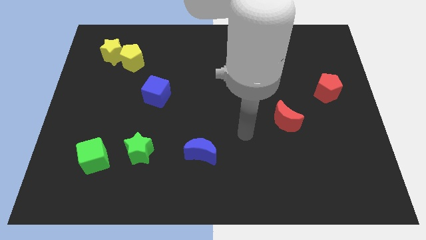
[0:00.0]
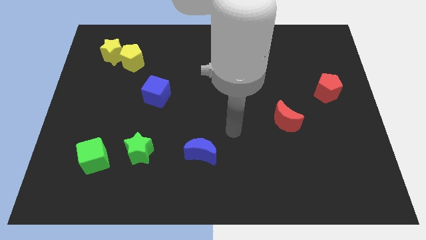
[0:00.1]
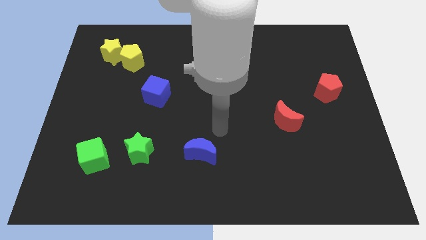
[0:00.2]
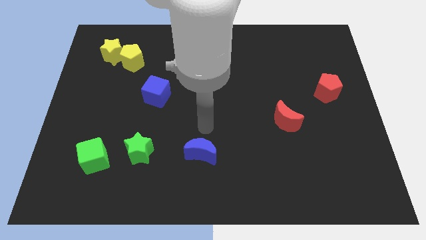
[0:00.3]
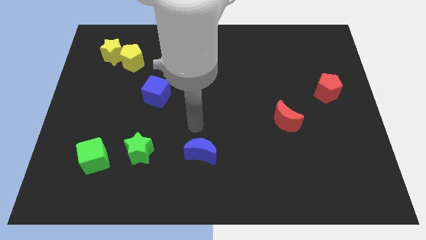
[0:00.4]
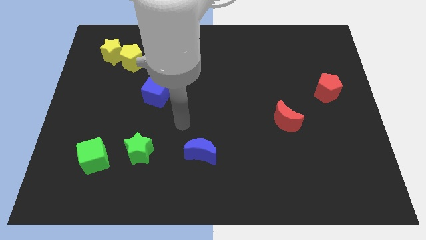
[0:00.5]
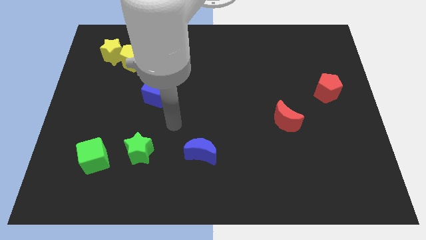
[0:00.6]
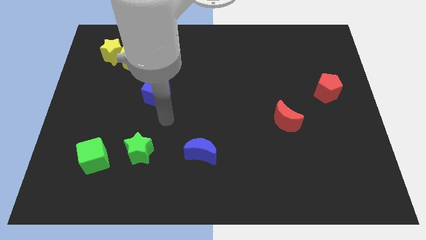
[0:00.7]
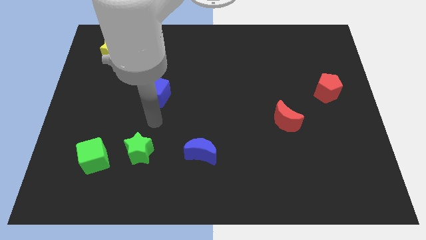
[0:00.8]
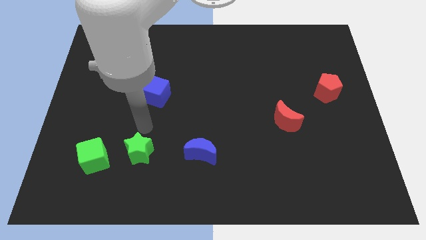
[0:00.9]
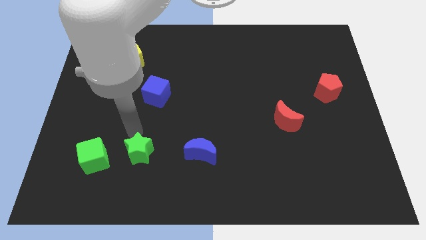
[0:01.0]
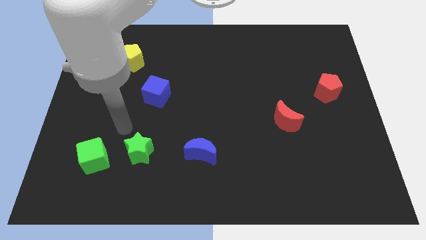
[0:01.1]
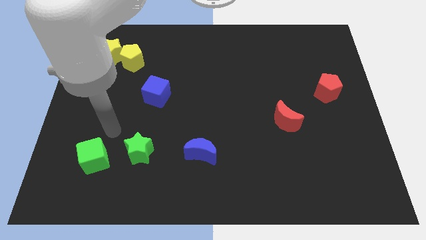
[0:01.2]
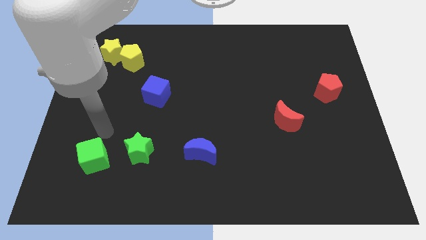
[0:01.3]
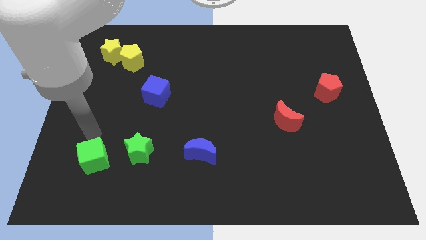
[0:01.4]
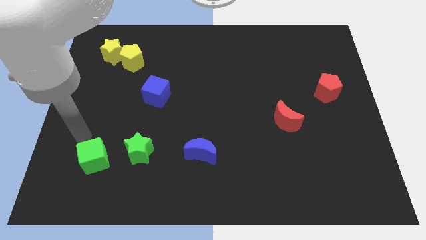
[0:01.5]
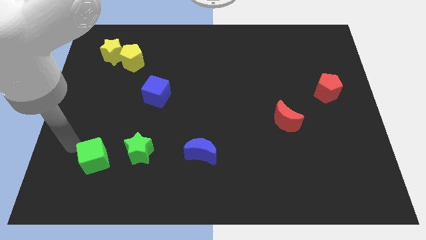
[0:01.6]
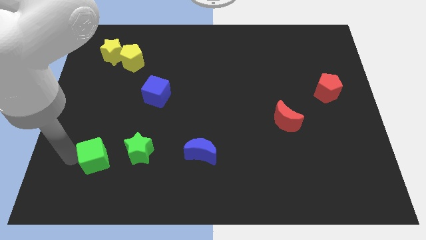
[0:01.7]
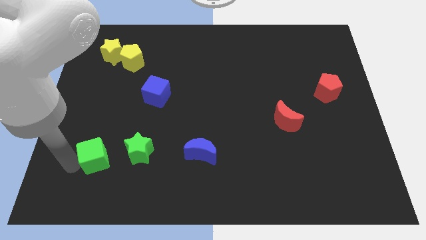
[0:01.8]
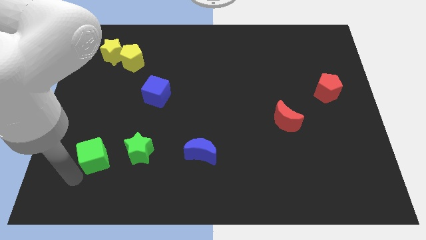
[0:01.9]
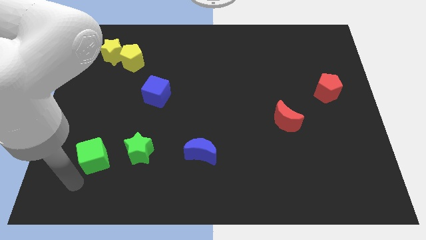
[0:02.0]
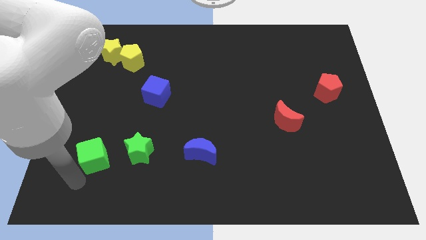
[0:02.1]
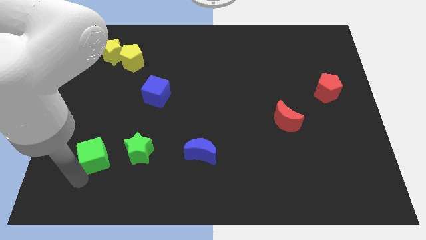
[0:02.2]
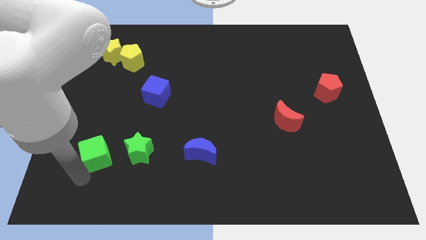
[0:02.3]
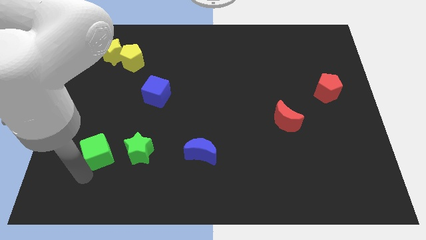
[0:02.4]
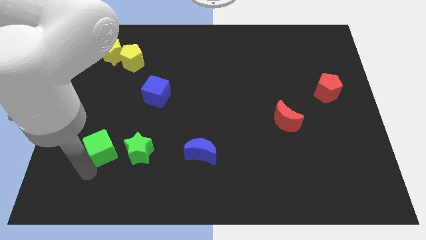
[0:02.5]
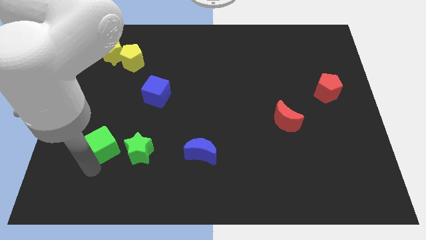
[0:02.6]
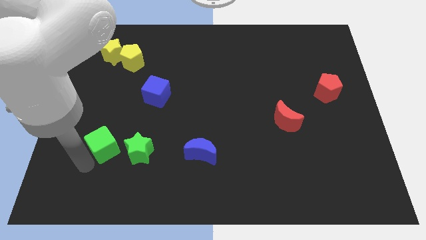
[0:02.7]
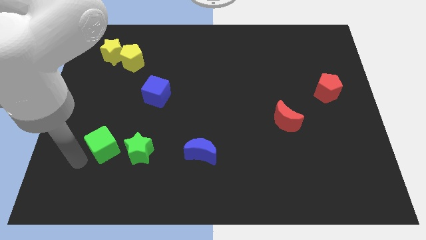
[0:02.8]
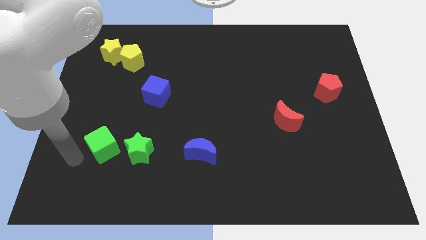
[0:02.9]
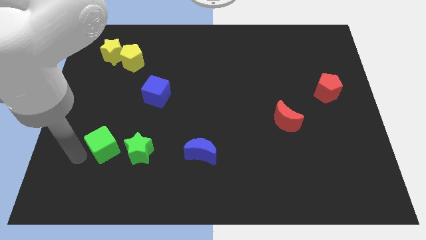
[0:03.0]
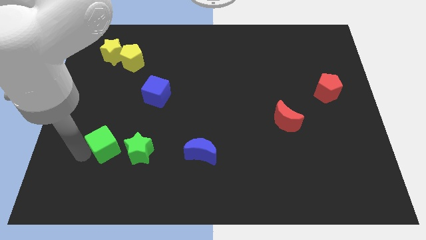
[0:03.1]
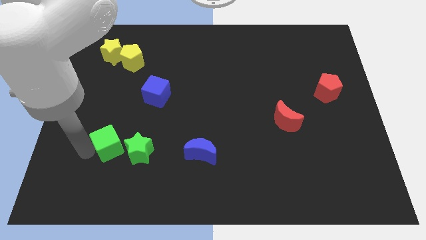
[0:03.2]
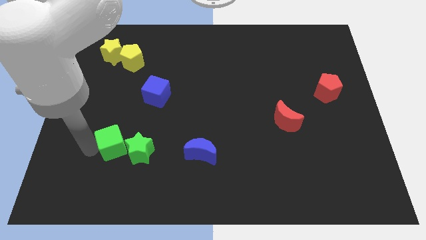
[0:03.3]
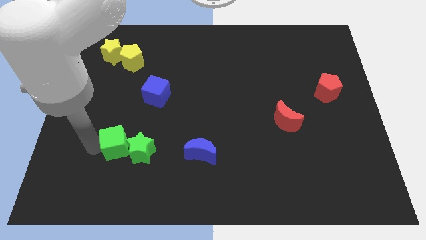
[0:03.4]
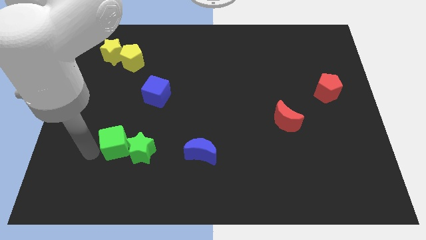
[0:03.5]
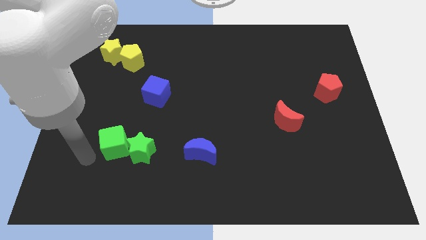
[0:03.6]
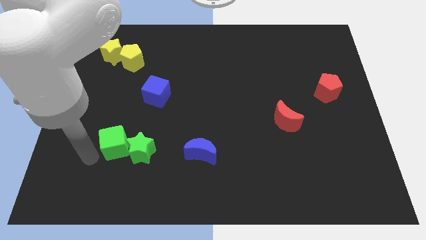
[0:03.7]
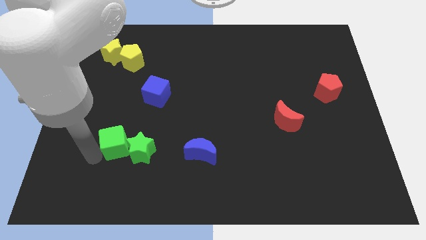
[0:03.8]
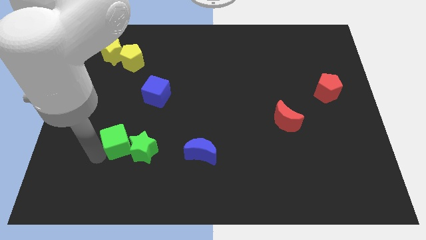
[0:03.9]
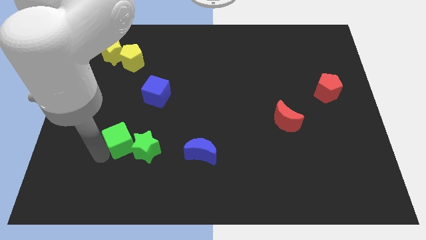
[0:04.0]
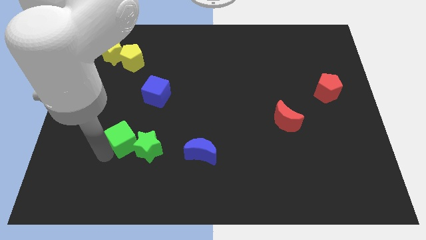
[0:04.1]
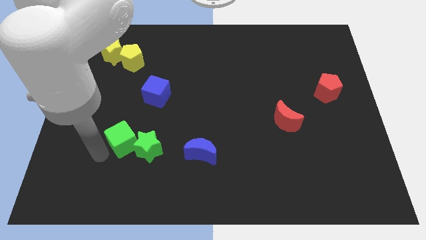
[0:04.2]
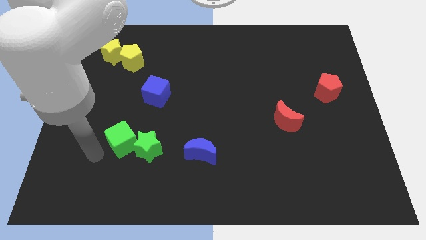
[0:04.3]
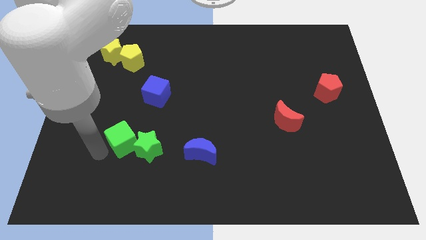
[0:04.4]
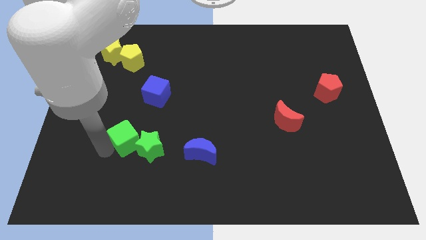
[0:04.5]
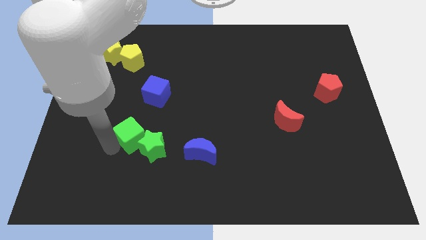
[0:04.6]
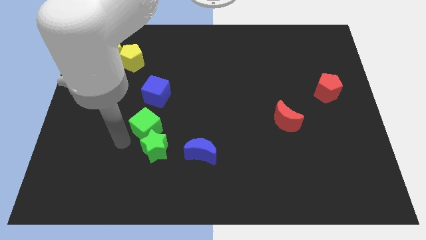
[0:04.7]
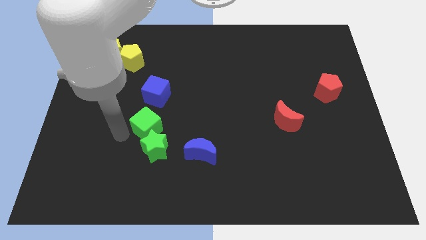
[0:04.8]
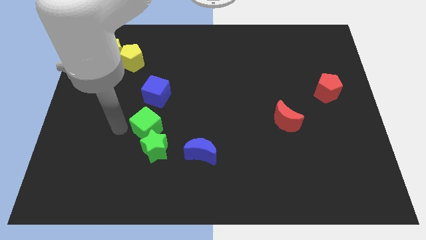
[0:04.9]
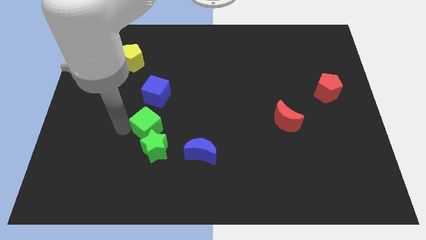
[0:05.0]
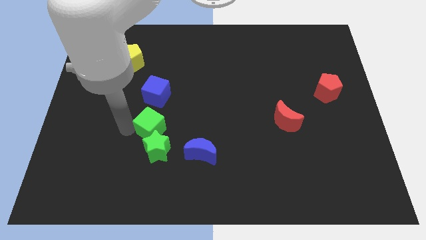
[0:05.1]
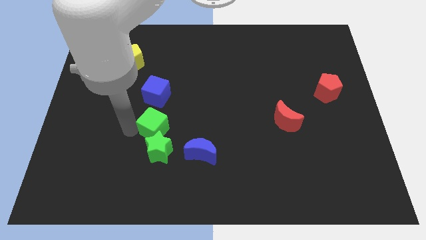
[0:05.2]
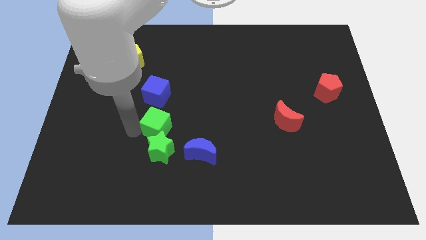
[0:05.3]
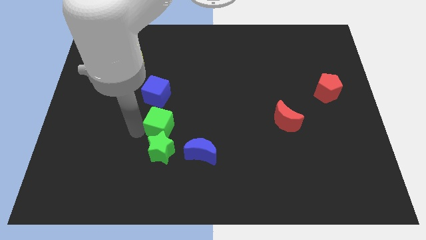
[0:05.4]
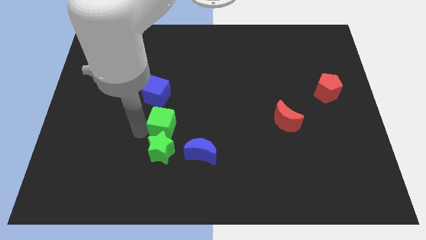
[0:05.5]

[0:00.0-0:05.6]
move the green cube to the top right of the green star
